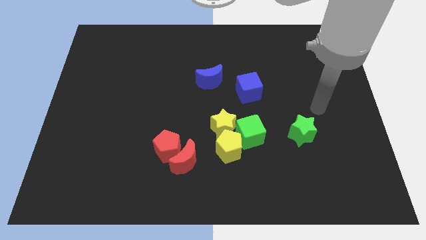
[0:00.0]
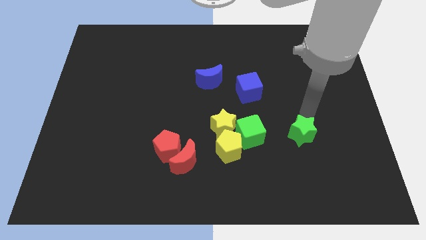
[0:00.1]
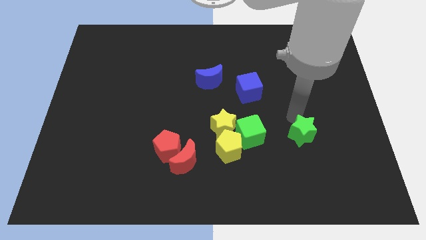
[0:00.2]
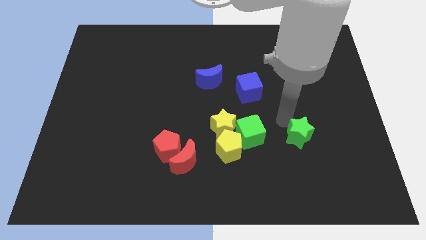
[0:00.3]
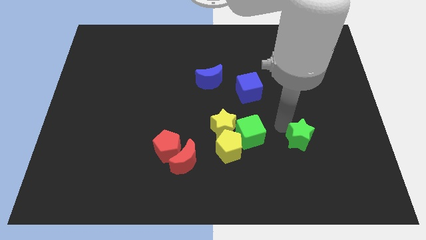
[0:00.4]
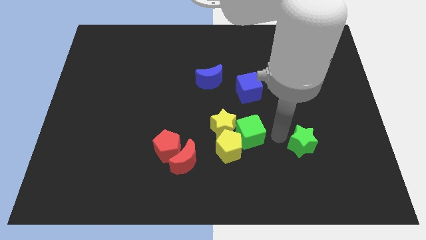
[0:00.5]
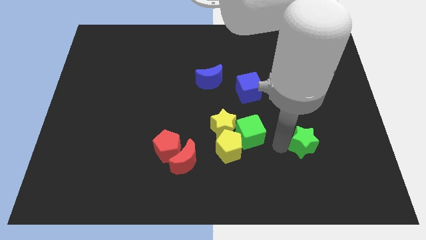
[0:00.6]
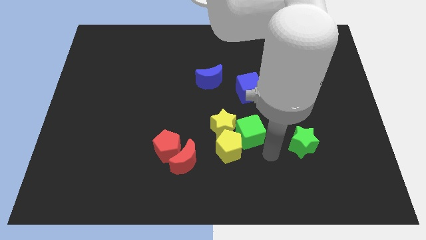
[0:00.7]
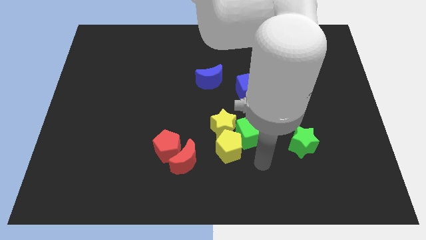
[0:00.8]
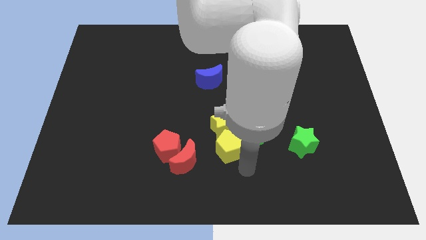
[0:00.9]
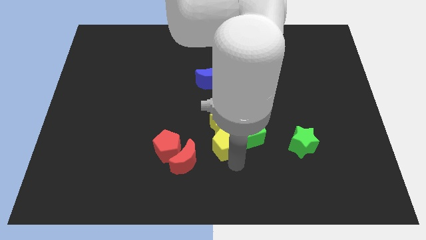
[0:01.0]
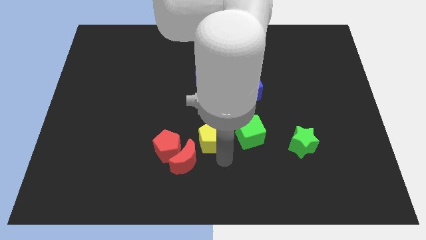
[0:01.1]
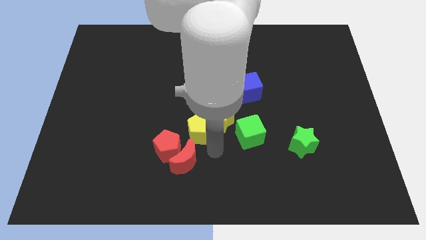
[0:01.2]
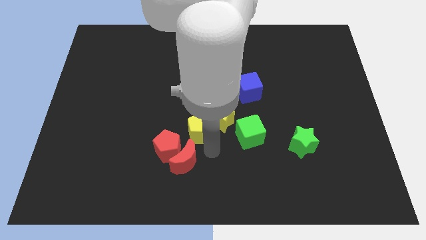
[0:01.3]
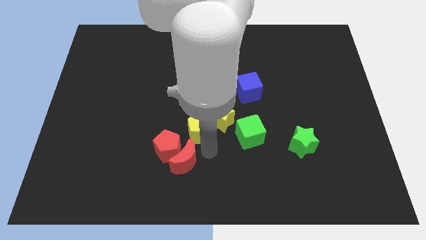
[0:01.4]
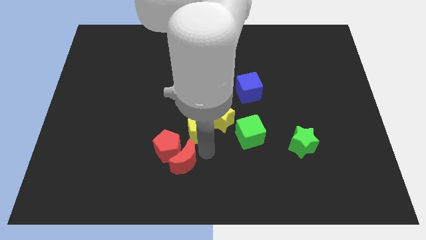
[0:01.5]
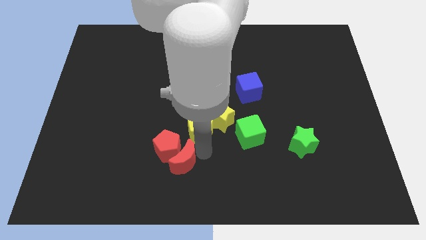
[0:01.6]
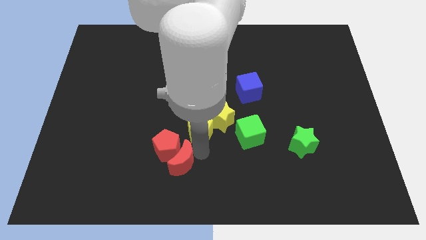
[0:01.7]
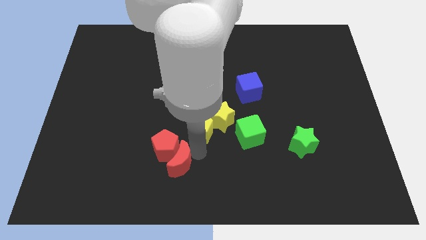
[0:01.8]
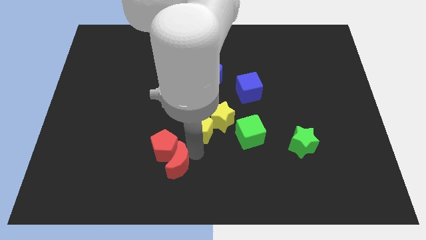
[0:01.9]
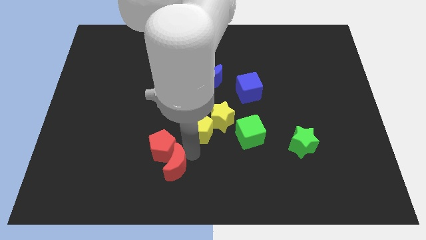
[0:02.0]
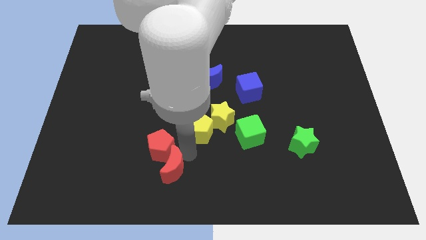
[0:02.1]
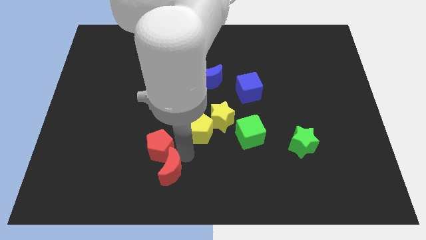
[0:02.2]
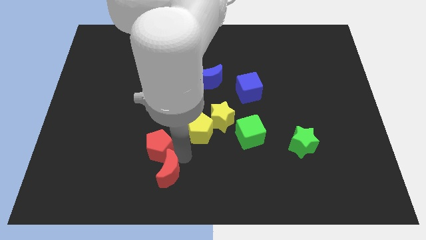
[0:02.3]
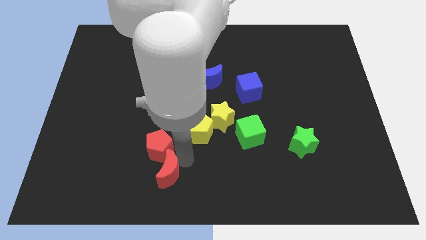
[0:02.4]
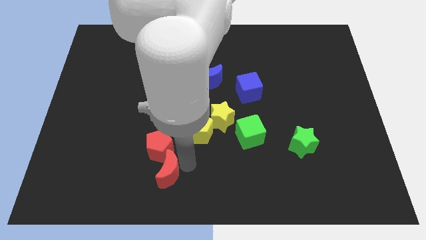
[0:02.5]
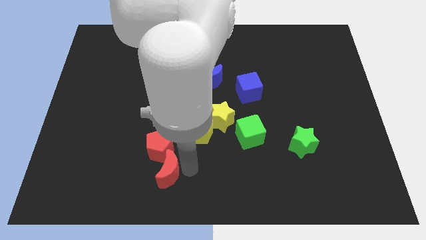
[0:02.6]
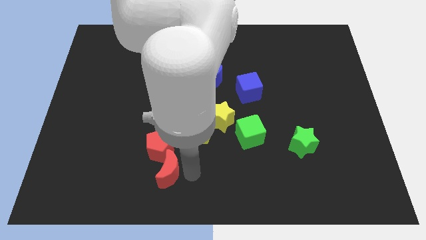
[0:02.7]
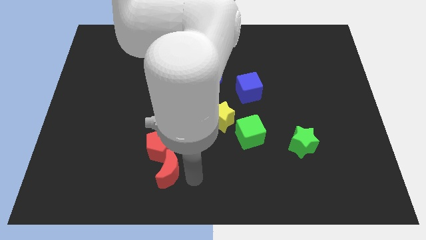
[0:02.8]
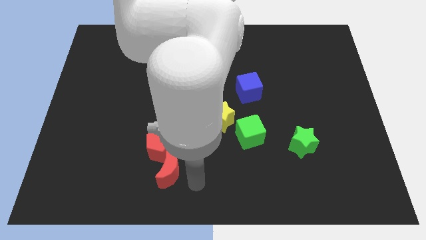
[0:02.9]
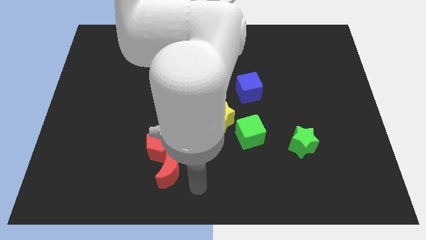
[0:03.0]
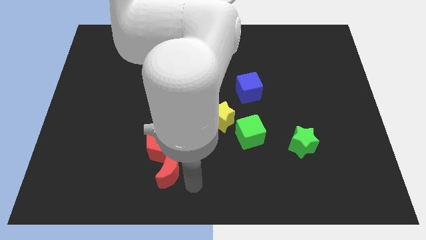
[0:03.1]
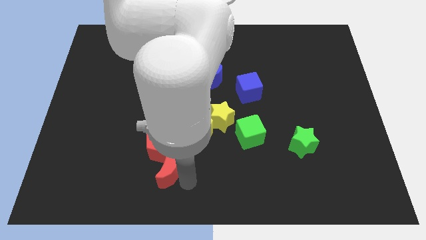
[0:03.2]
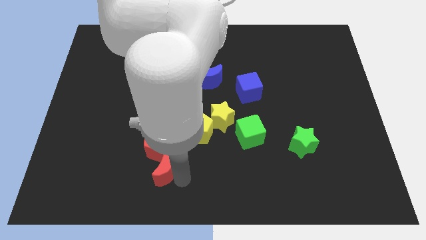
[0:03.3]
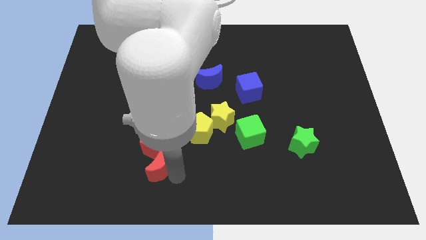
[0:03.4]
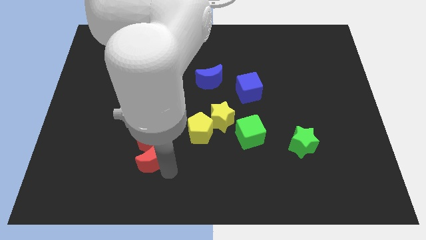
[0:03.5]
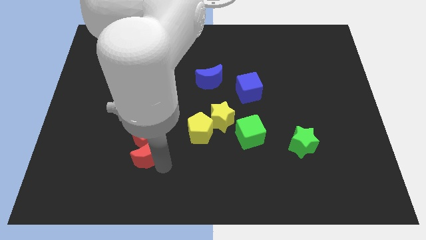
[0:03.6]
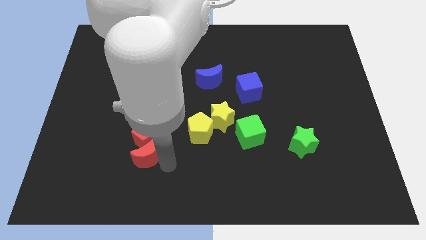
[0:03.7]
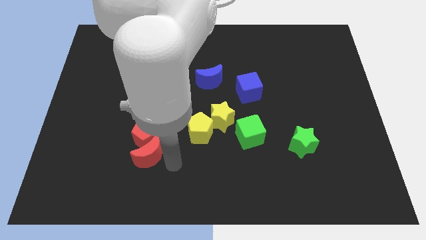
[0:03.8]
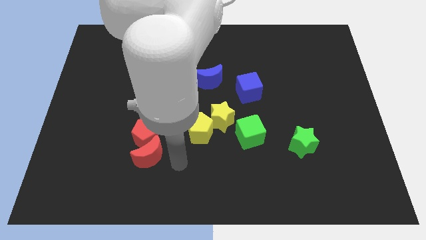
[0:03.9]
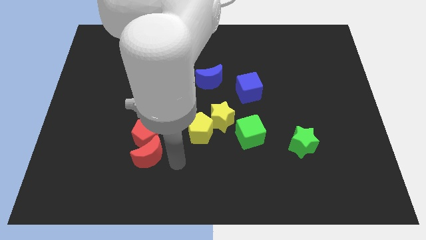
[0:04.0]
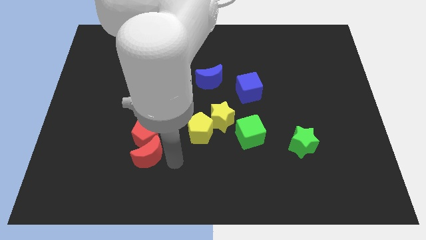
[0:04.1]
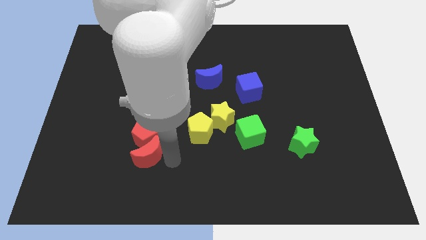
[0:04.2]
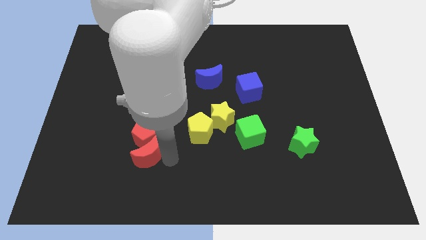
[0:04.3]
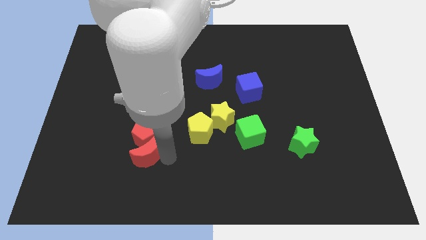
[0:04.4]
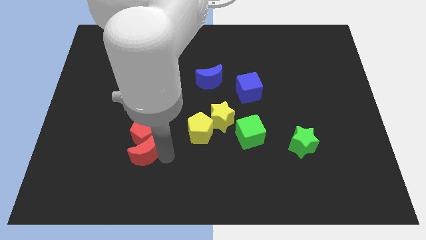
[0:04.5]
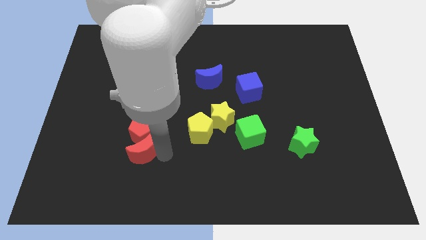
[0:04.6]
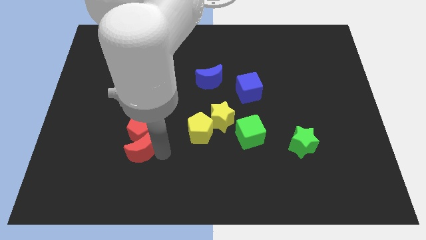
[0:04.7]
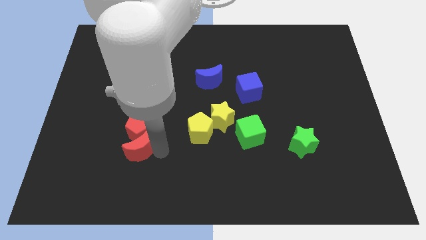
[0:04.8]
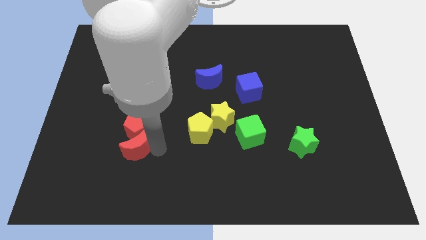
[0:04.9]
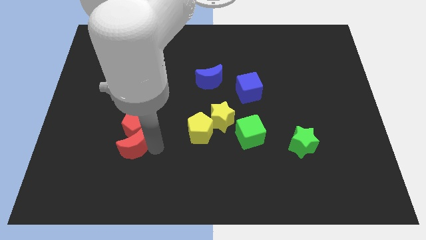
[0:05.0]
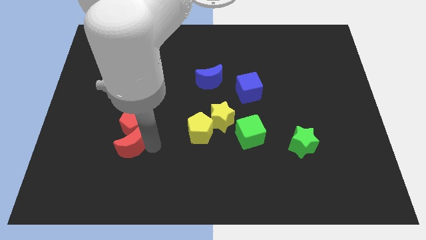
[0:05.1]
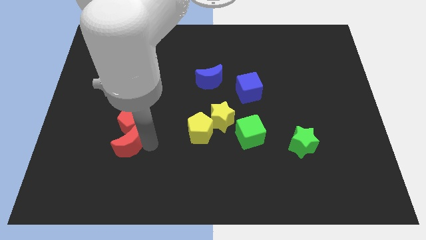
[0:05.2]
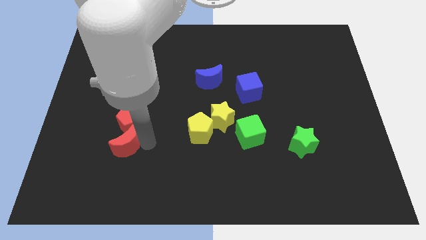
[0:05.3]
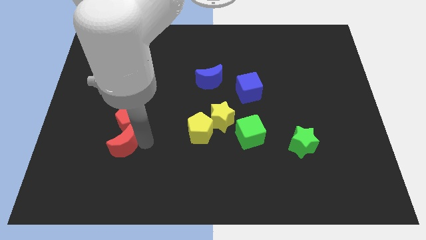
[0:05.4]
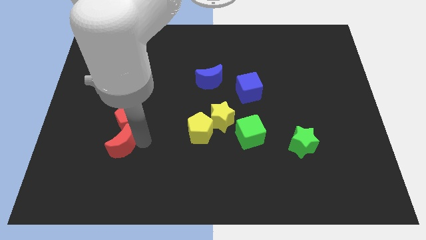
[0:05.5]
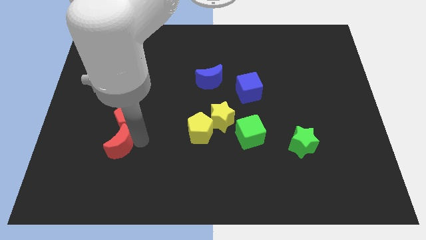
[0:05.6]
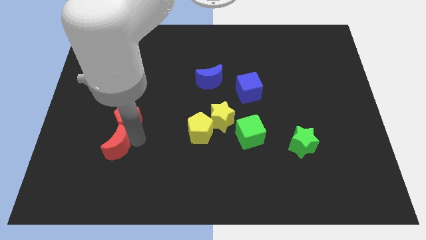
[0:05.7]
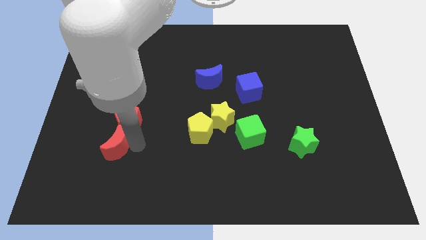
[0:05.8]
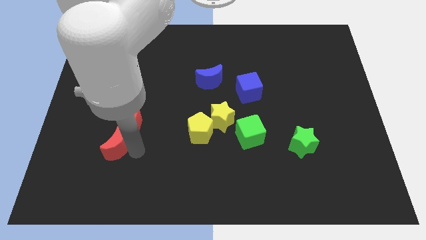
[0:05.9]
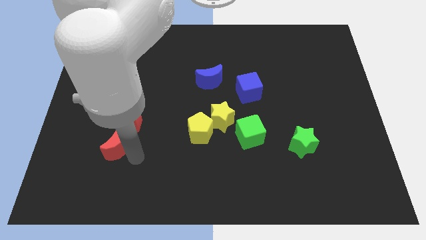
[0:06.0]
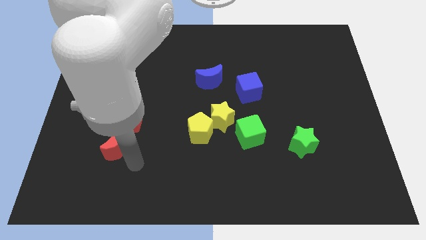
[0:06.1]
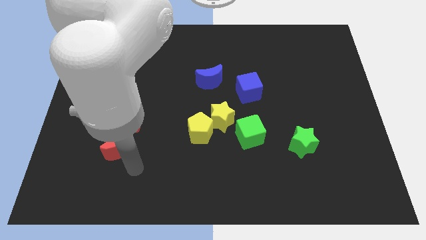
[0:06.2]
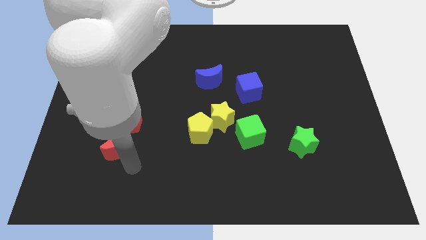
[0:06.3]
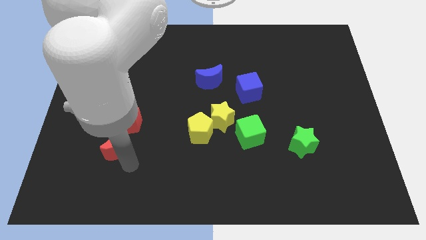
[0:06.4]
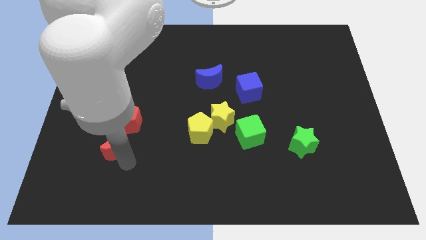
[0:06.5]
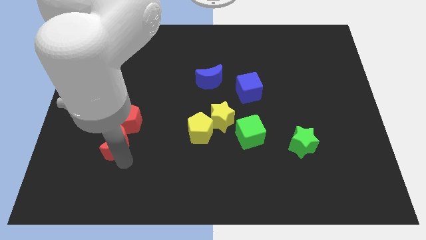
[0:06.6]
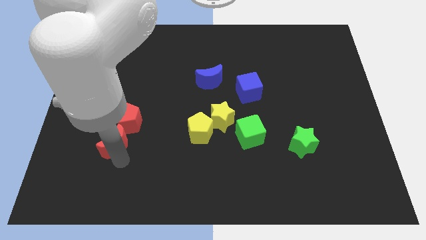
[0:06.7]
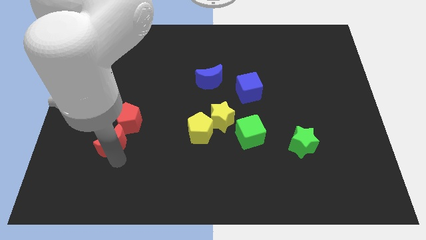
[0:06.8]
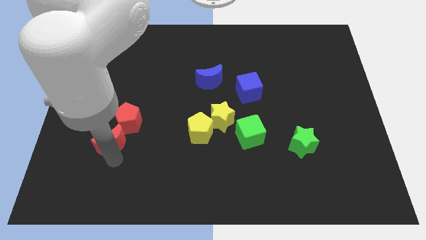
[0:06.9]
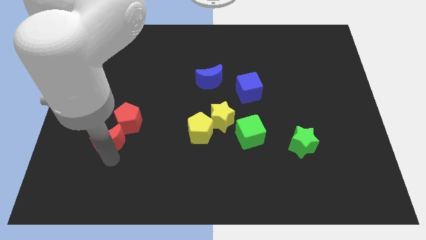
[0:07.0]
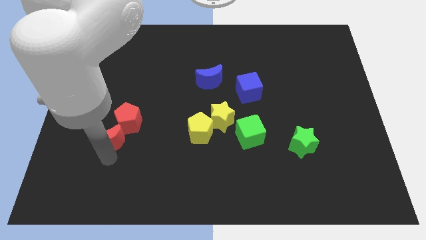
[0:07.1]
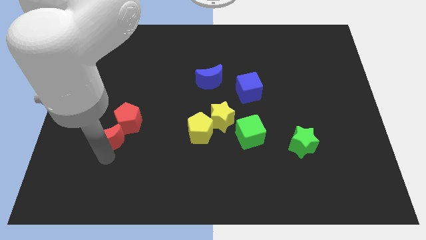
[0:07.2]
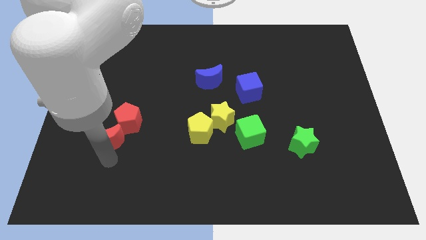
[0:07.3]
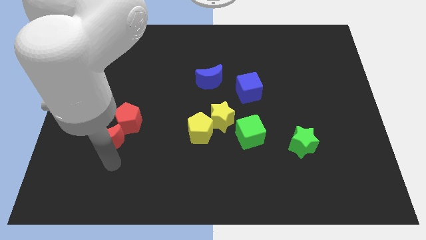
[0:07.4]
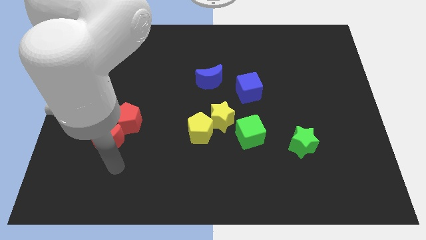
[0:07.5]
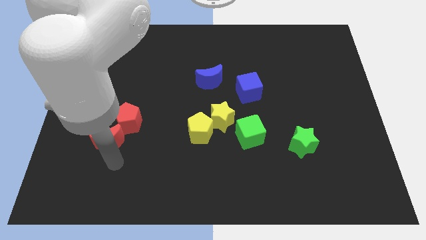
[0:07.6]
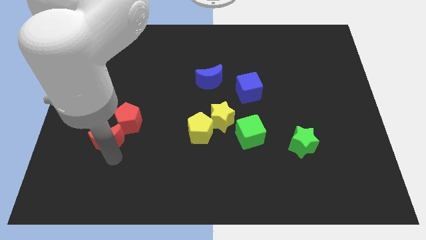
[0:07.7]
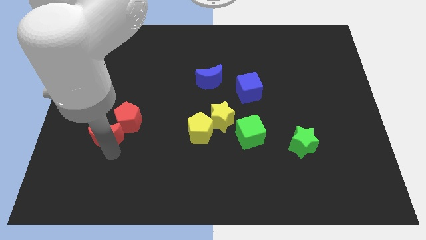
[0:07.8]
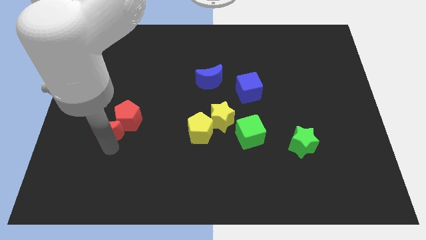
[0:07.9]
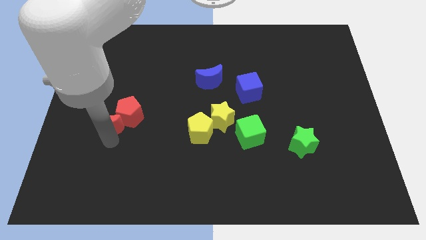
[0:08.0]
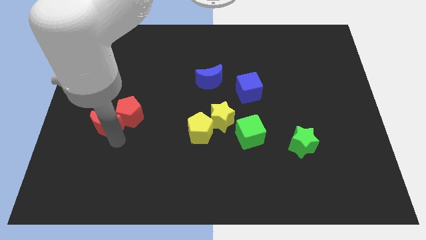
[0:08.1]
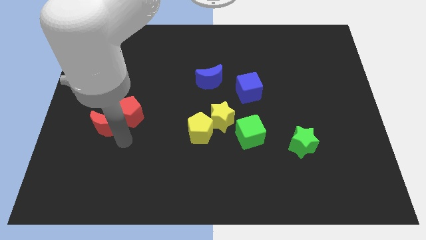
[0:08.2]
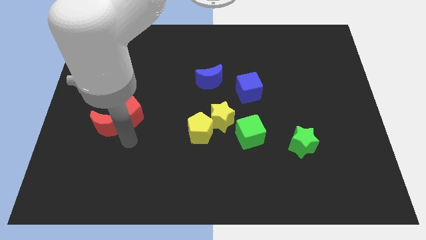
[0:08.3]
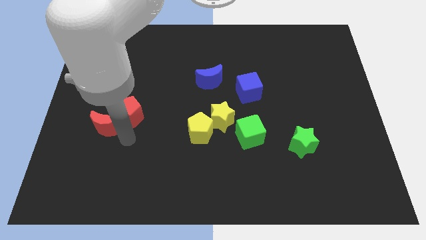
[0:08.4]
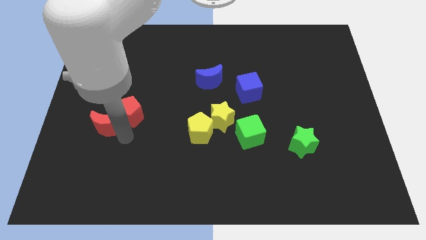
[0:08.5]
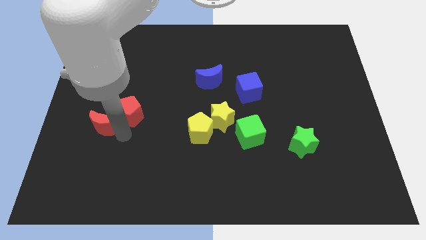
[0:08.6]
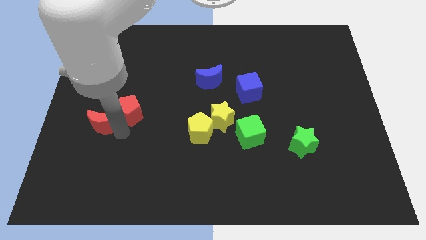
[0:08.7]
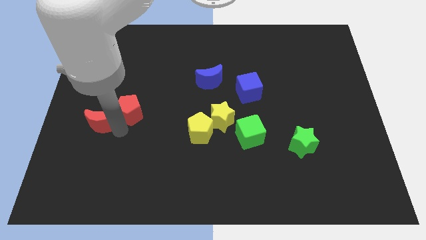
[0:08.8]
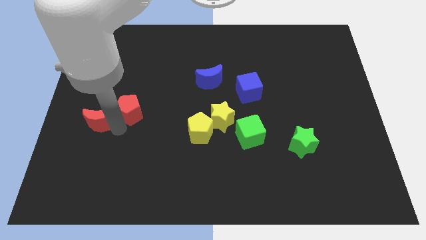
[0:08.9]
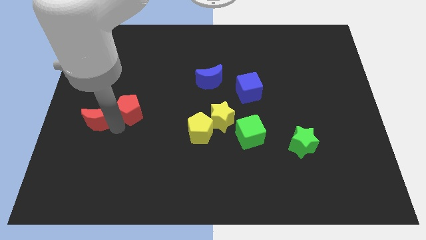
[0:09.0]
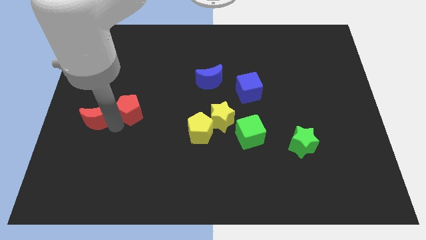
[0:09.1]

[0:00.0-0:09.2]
push the red moon to the left side of the board
